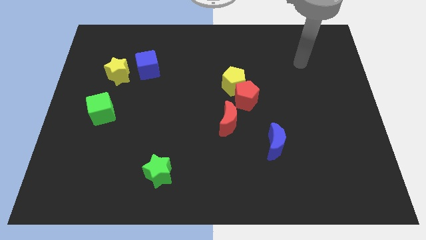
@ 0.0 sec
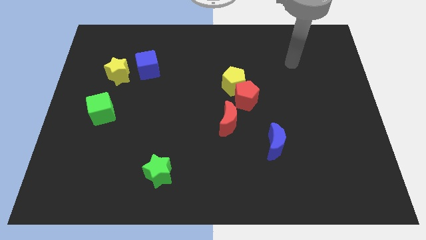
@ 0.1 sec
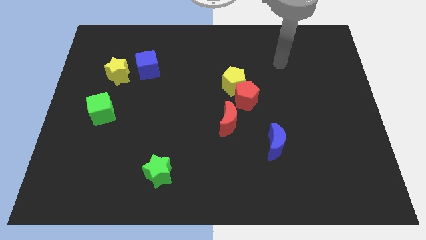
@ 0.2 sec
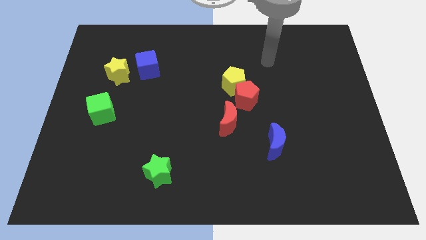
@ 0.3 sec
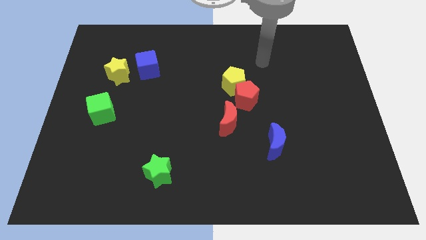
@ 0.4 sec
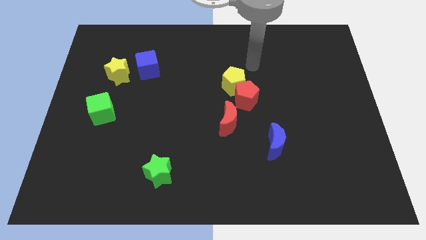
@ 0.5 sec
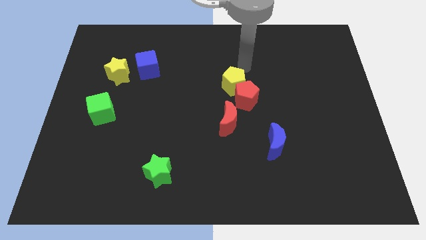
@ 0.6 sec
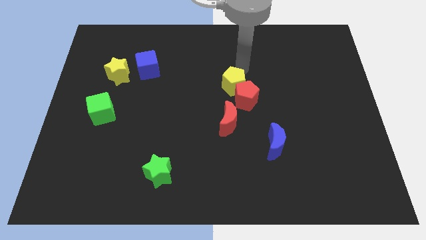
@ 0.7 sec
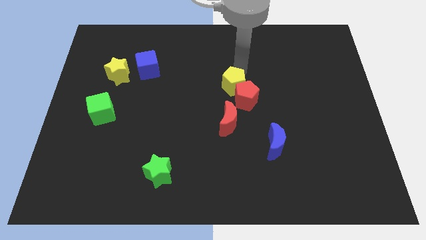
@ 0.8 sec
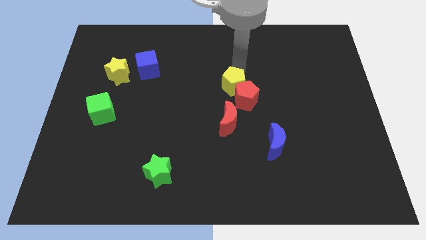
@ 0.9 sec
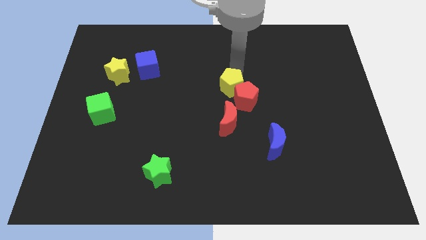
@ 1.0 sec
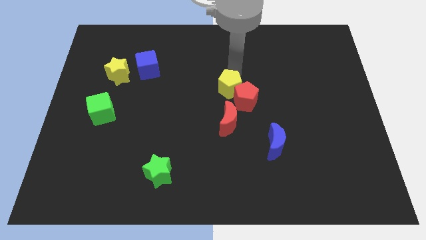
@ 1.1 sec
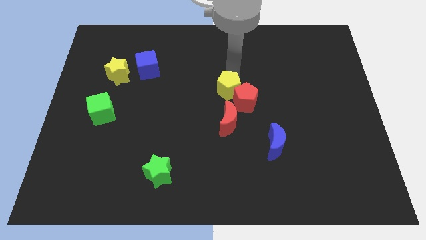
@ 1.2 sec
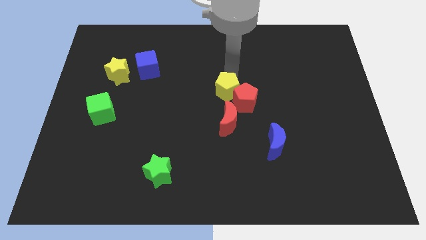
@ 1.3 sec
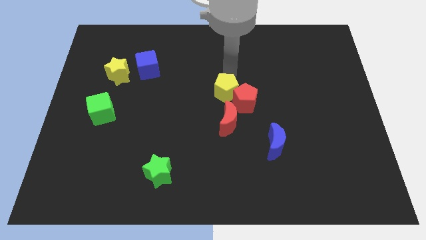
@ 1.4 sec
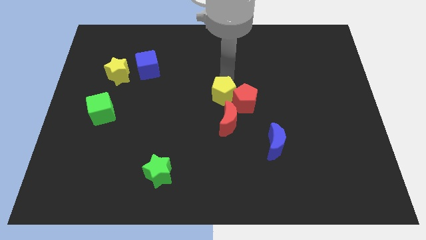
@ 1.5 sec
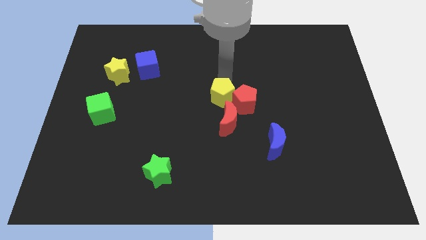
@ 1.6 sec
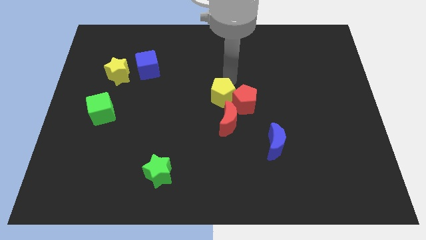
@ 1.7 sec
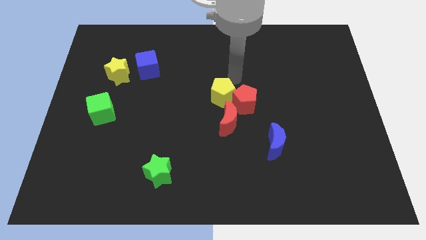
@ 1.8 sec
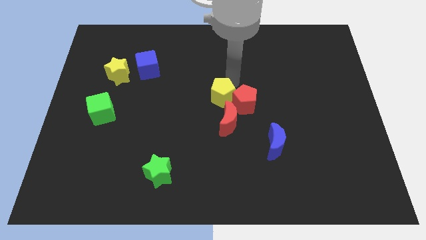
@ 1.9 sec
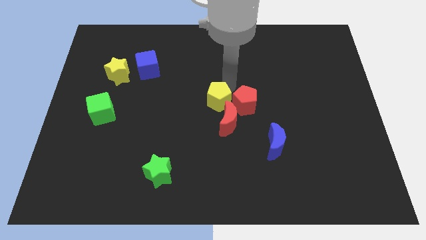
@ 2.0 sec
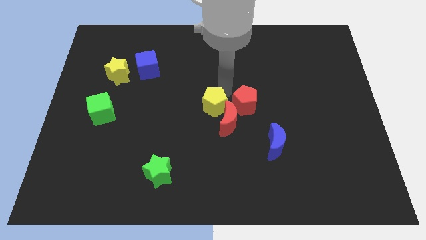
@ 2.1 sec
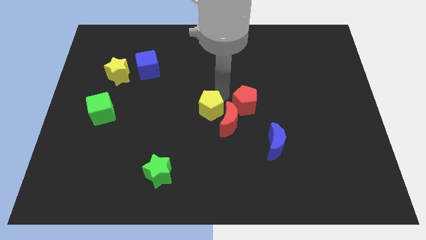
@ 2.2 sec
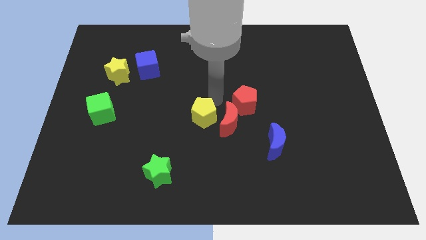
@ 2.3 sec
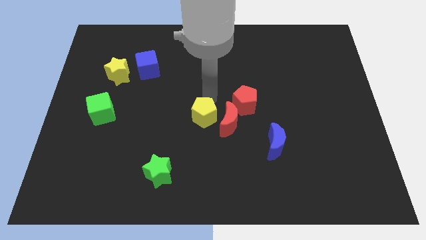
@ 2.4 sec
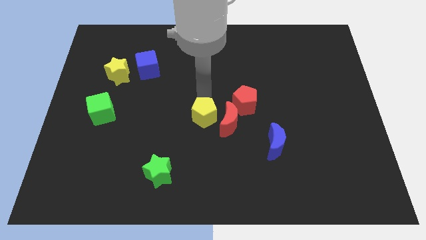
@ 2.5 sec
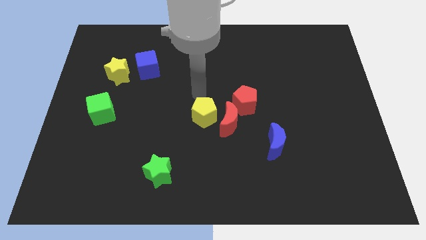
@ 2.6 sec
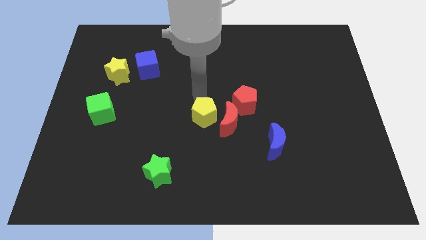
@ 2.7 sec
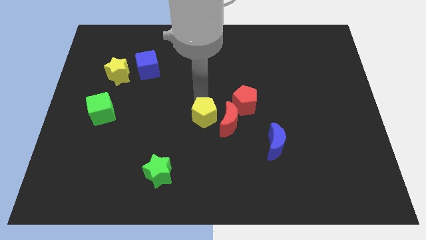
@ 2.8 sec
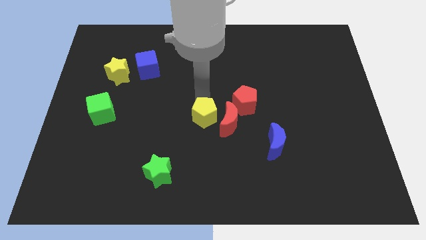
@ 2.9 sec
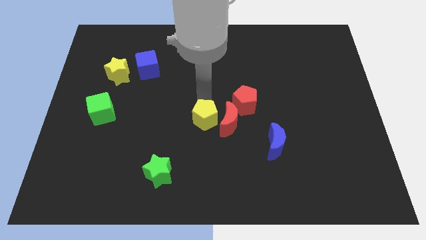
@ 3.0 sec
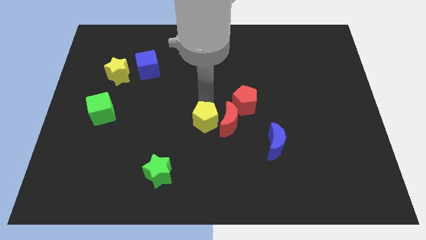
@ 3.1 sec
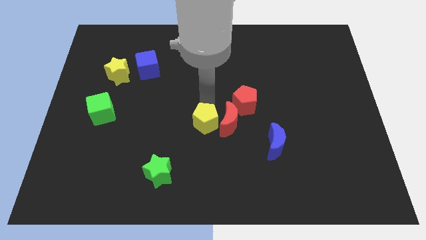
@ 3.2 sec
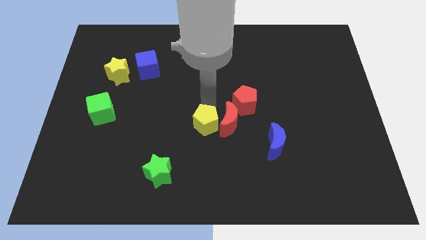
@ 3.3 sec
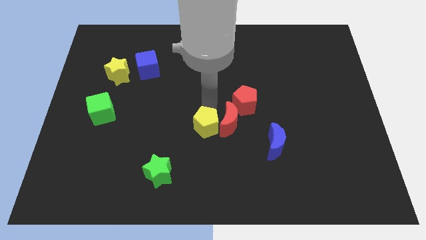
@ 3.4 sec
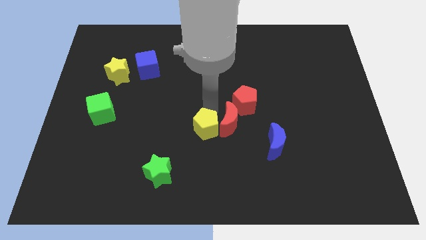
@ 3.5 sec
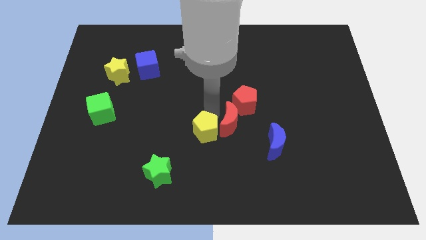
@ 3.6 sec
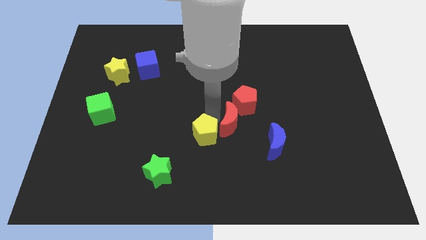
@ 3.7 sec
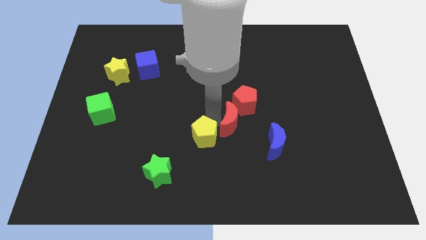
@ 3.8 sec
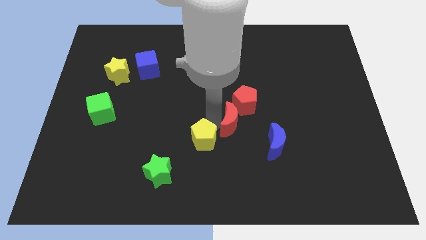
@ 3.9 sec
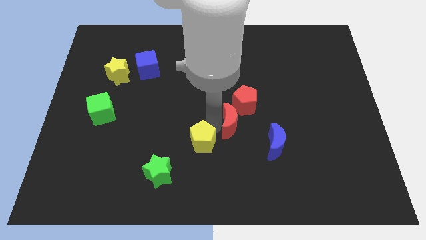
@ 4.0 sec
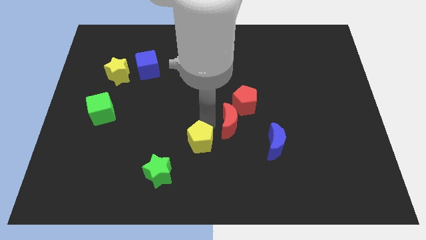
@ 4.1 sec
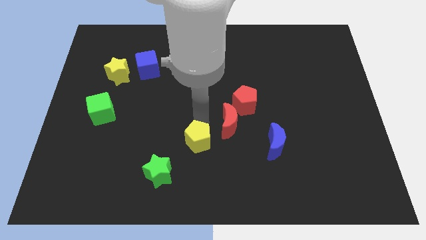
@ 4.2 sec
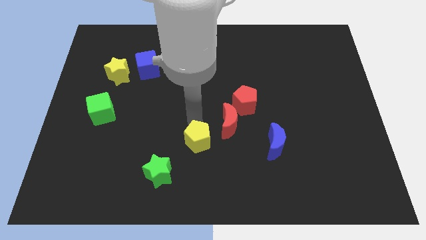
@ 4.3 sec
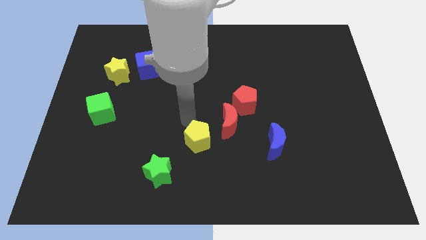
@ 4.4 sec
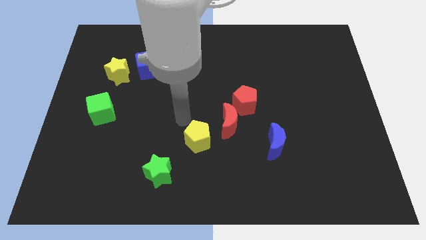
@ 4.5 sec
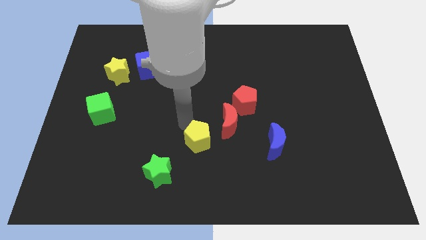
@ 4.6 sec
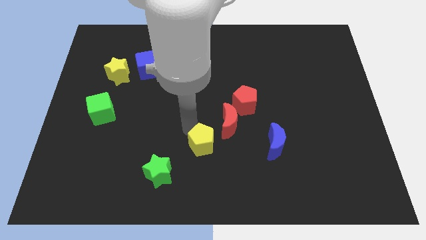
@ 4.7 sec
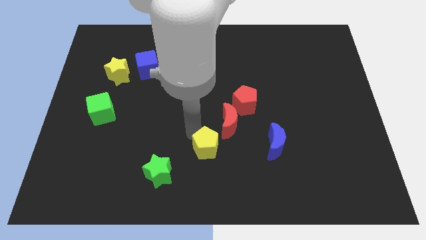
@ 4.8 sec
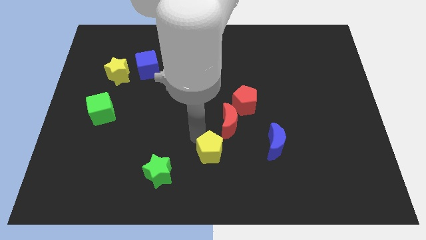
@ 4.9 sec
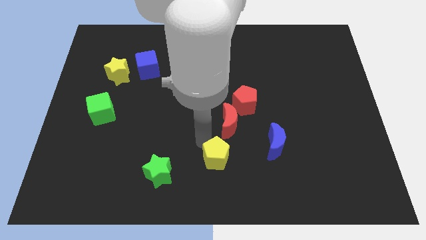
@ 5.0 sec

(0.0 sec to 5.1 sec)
put the yellow pentagon to the bottom side

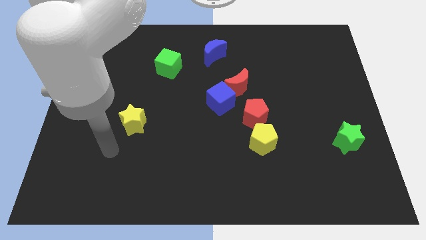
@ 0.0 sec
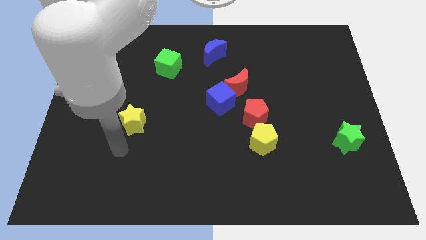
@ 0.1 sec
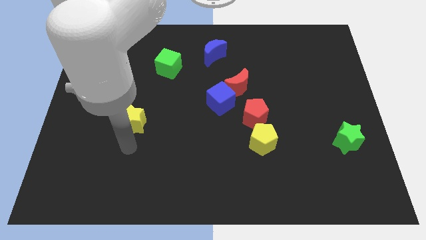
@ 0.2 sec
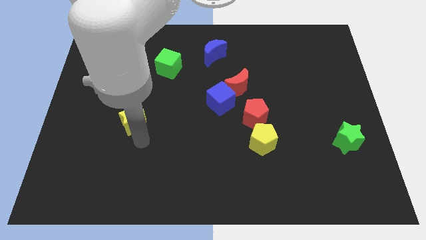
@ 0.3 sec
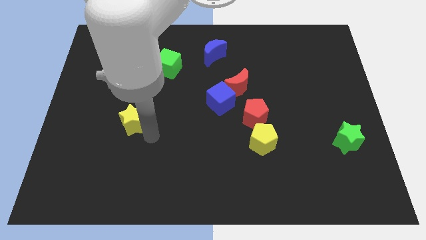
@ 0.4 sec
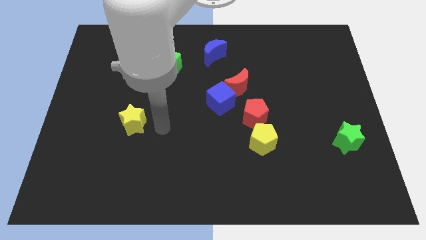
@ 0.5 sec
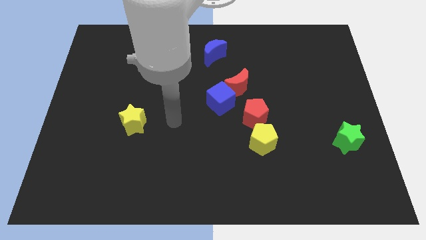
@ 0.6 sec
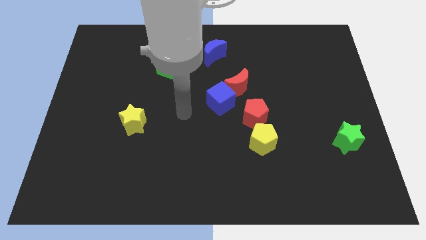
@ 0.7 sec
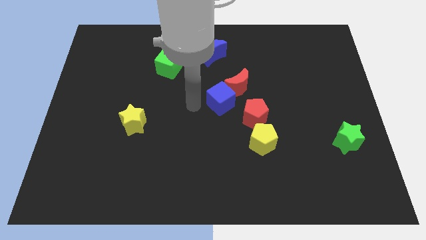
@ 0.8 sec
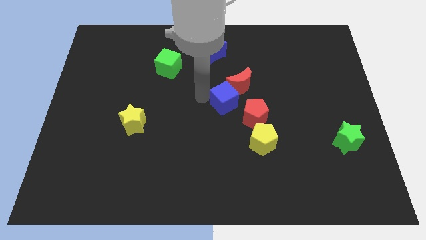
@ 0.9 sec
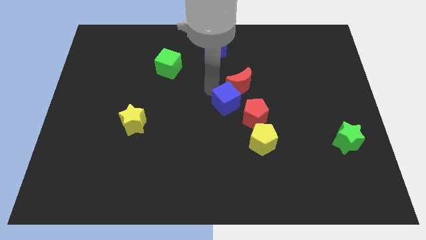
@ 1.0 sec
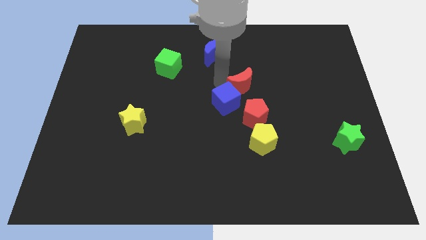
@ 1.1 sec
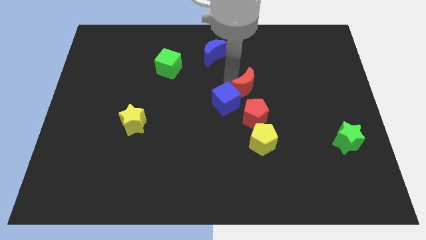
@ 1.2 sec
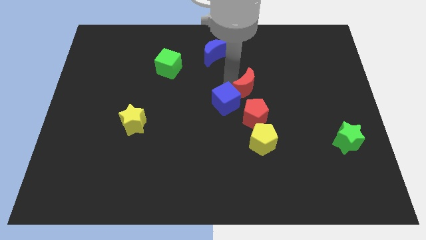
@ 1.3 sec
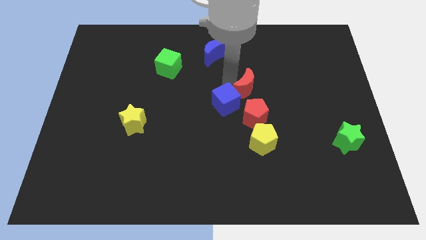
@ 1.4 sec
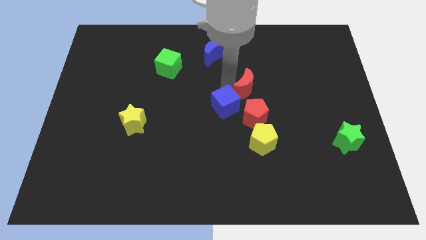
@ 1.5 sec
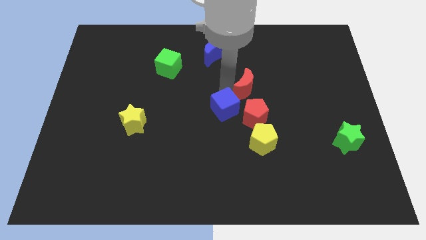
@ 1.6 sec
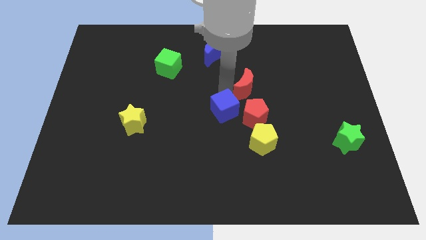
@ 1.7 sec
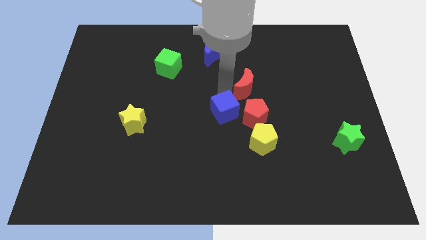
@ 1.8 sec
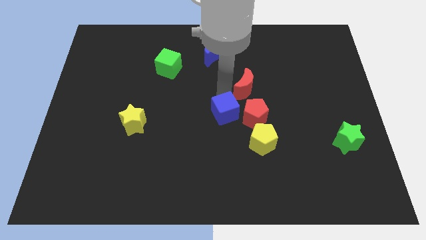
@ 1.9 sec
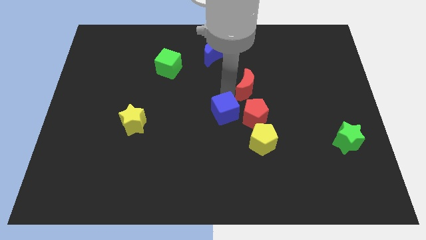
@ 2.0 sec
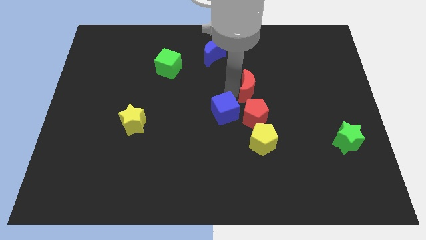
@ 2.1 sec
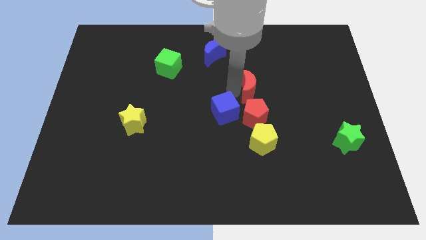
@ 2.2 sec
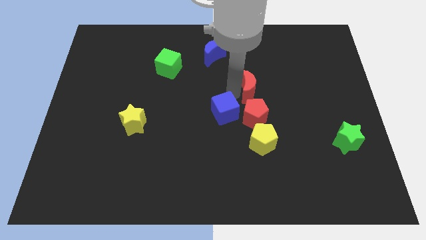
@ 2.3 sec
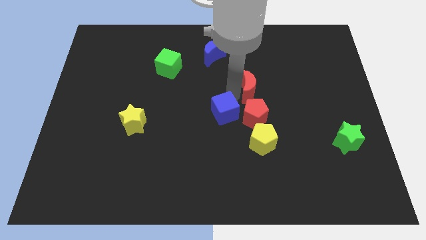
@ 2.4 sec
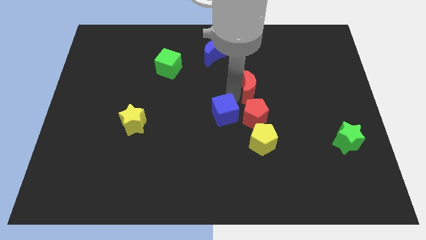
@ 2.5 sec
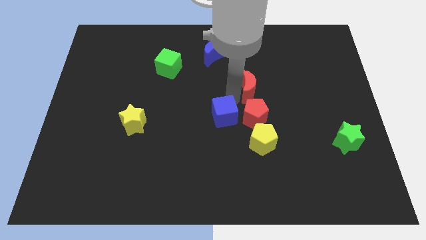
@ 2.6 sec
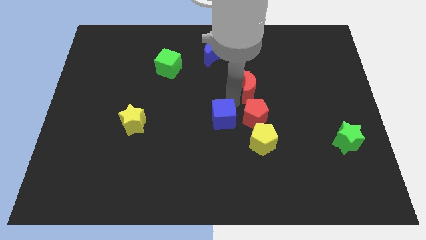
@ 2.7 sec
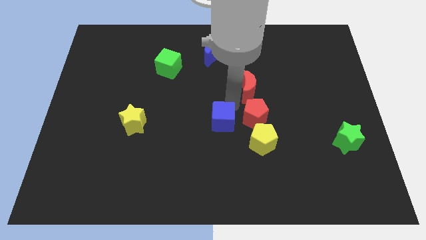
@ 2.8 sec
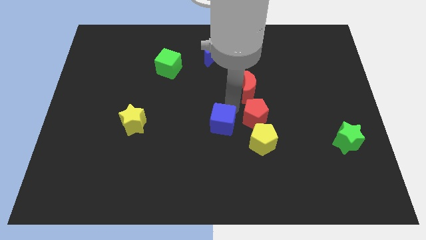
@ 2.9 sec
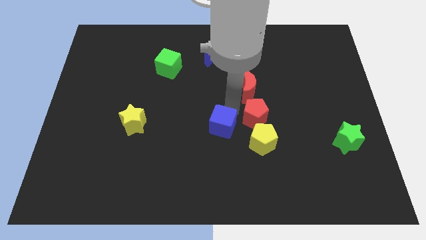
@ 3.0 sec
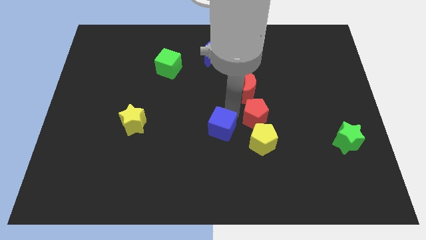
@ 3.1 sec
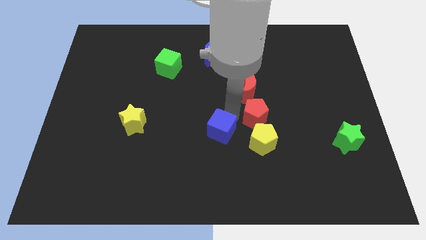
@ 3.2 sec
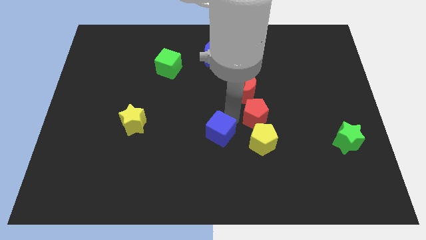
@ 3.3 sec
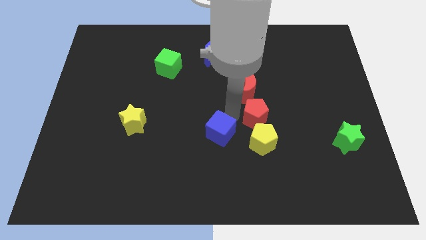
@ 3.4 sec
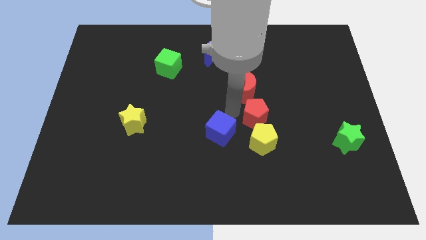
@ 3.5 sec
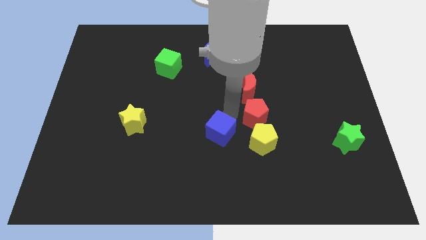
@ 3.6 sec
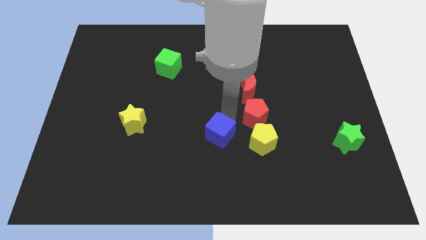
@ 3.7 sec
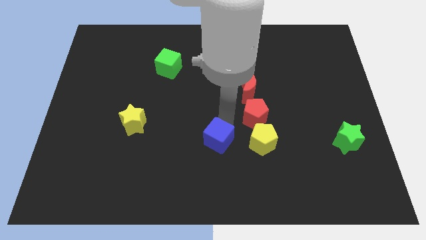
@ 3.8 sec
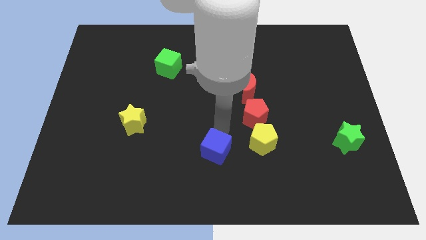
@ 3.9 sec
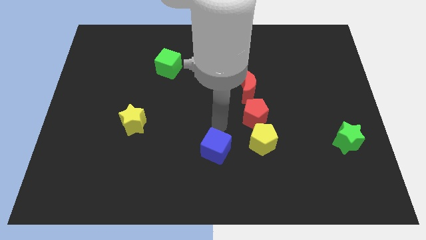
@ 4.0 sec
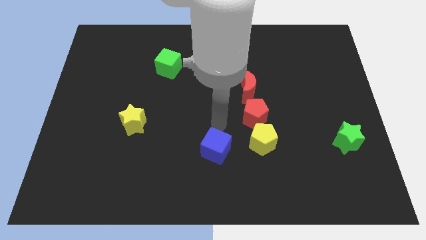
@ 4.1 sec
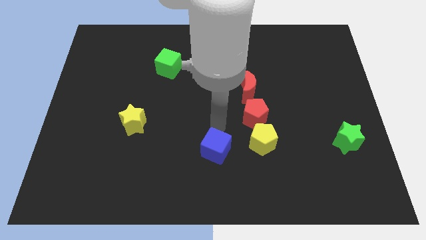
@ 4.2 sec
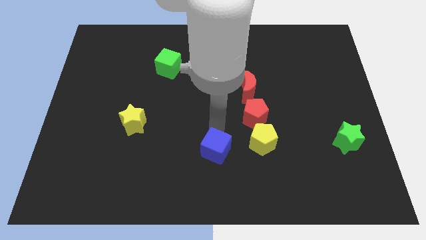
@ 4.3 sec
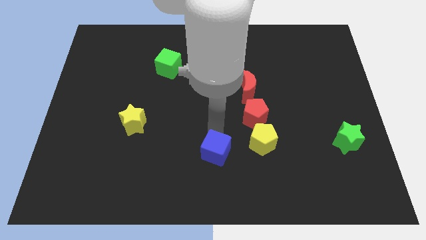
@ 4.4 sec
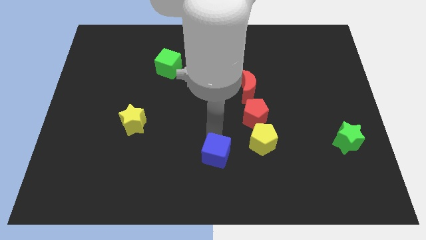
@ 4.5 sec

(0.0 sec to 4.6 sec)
move the blue cube to the bottom side
